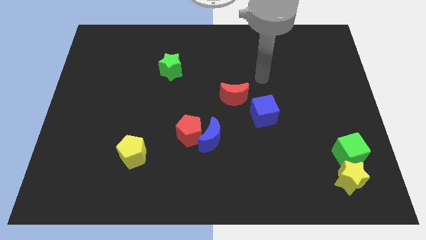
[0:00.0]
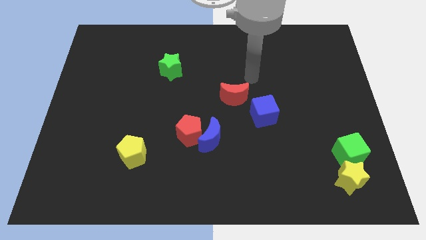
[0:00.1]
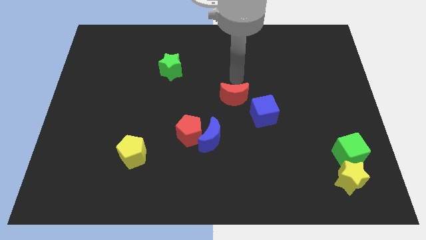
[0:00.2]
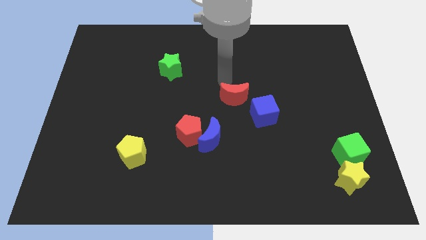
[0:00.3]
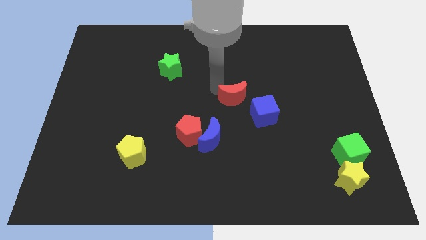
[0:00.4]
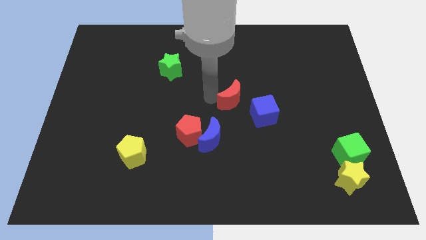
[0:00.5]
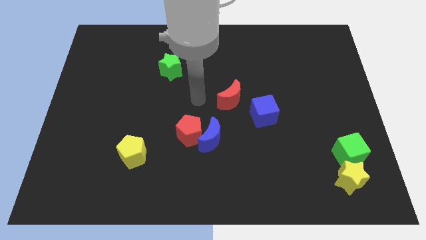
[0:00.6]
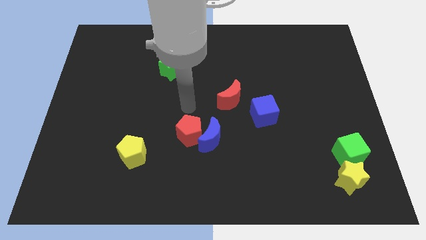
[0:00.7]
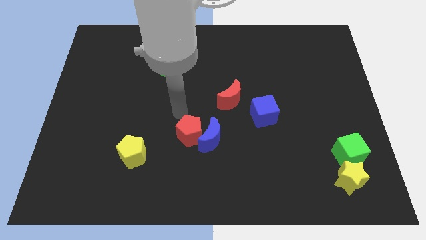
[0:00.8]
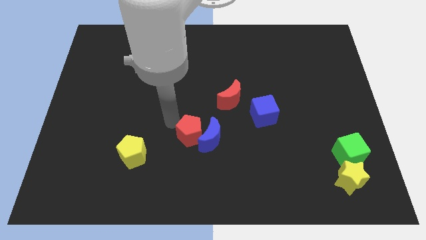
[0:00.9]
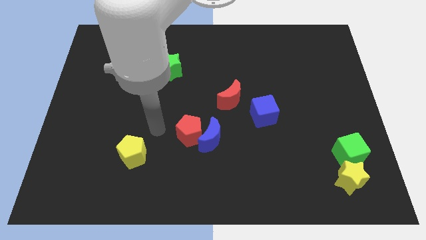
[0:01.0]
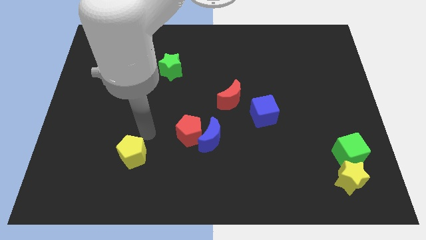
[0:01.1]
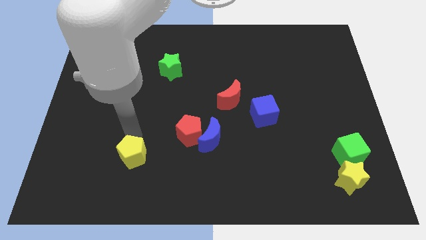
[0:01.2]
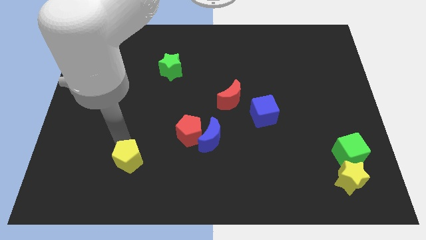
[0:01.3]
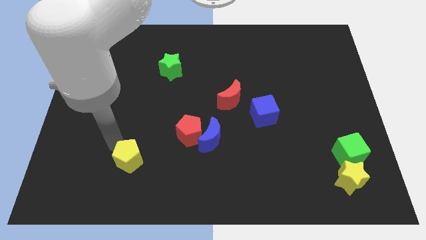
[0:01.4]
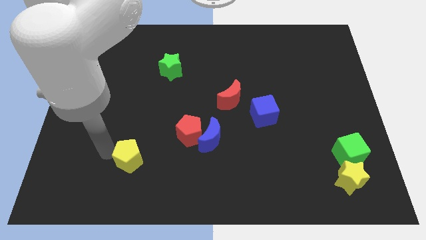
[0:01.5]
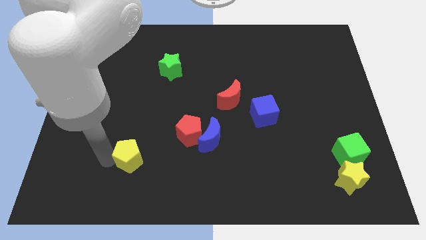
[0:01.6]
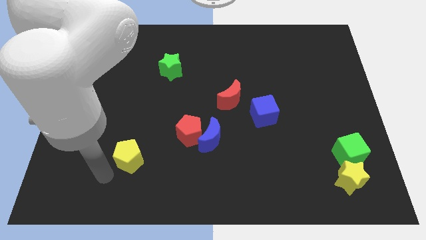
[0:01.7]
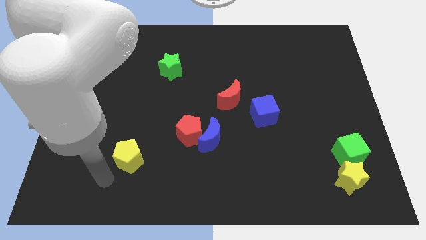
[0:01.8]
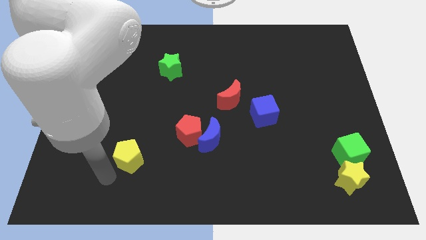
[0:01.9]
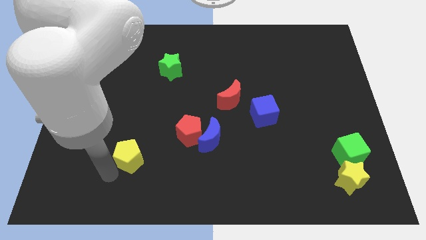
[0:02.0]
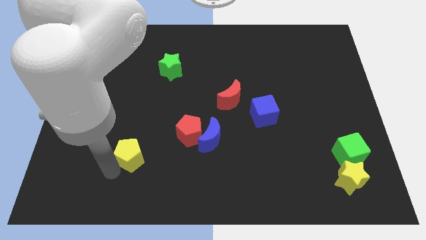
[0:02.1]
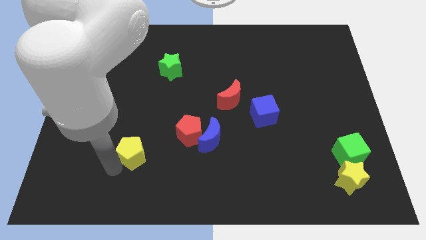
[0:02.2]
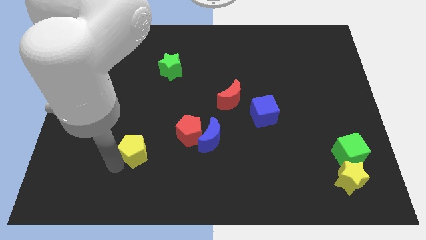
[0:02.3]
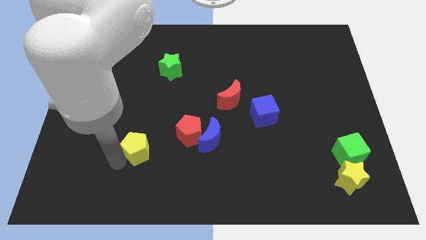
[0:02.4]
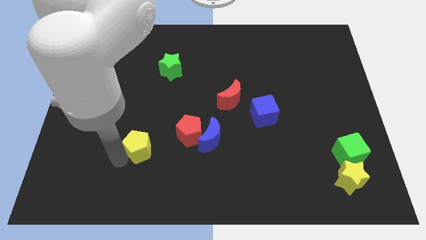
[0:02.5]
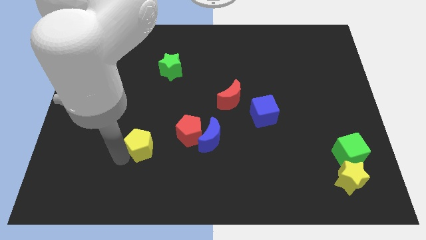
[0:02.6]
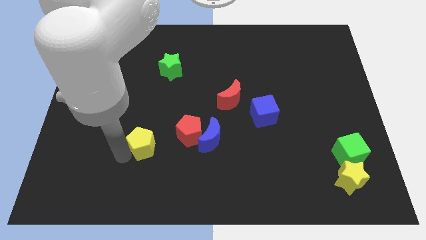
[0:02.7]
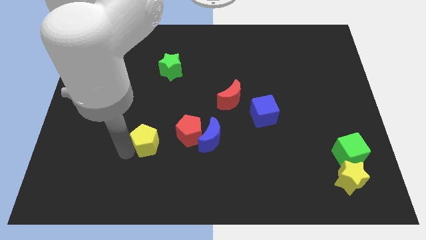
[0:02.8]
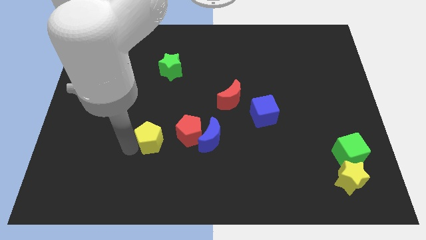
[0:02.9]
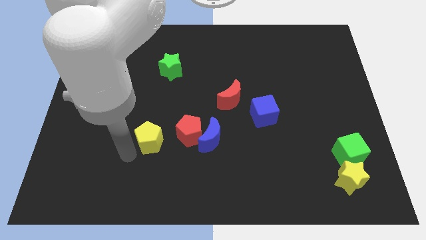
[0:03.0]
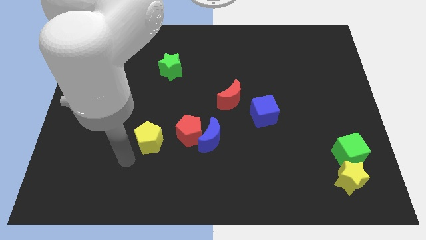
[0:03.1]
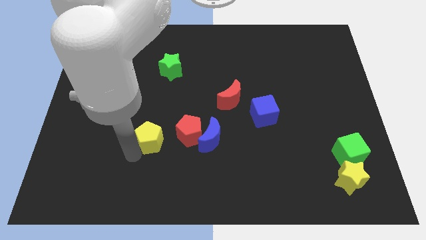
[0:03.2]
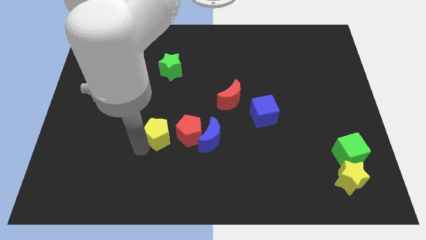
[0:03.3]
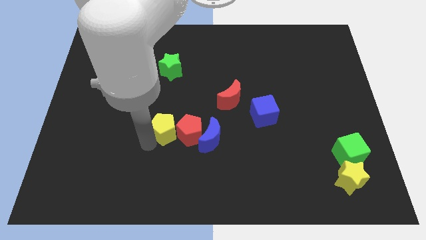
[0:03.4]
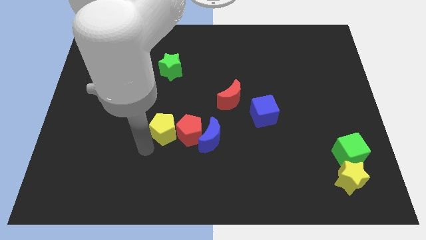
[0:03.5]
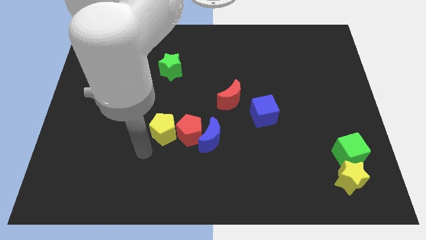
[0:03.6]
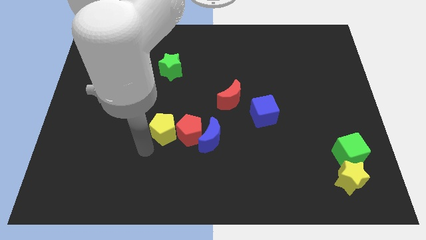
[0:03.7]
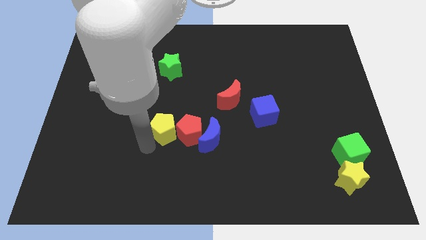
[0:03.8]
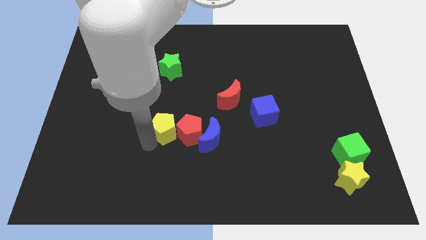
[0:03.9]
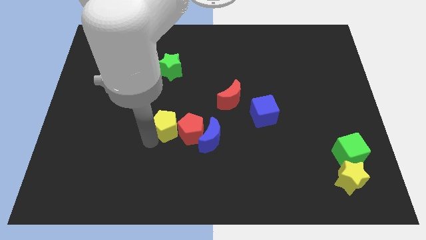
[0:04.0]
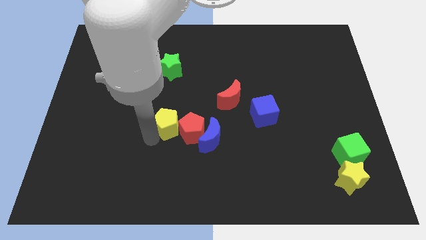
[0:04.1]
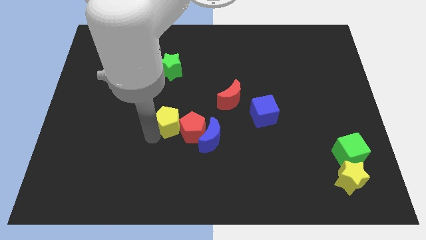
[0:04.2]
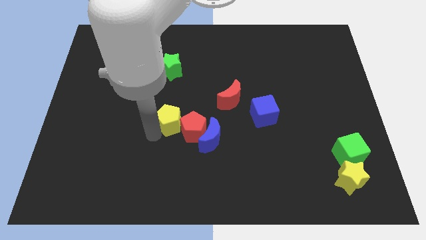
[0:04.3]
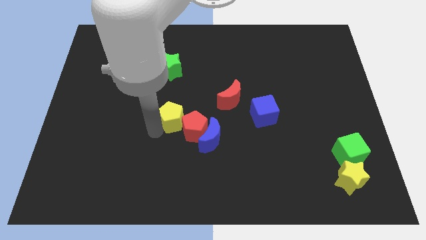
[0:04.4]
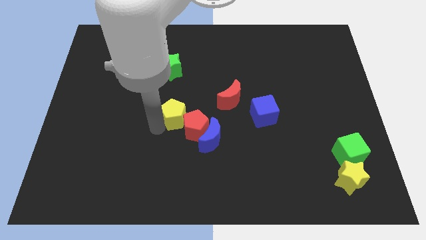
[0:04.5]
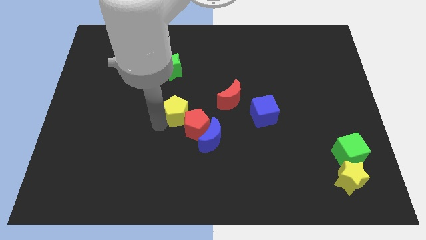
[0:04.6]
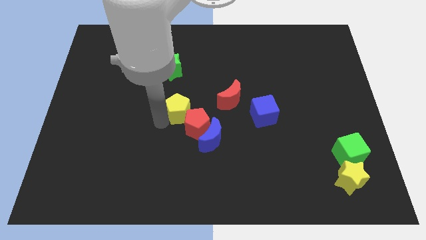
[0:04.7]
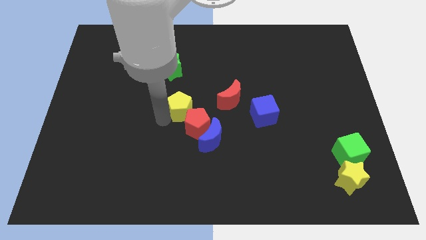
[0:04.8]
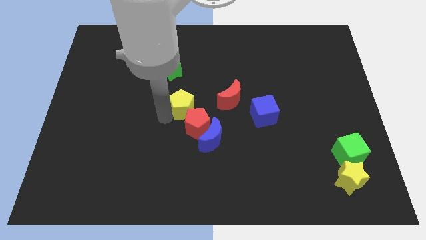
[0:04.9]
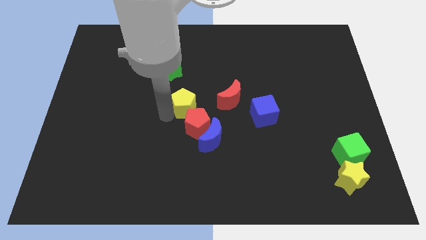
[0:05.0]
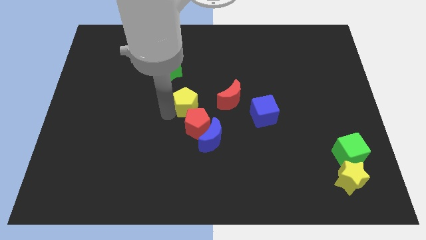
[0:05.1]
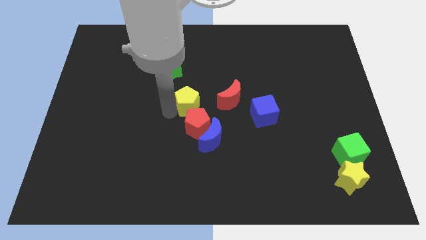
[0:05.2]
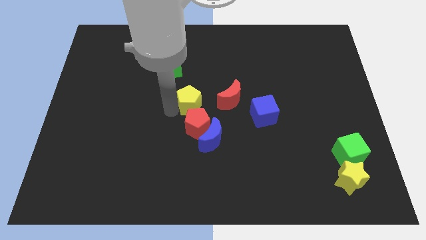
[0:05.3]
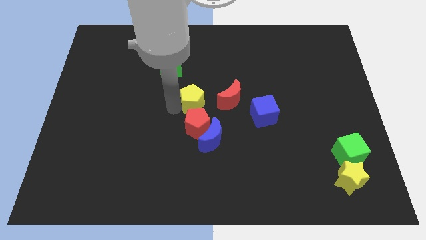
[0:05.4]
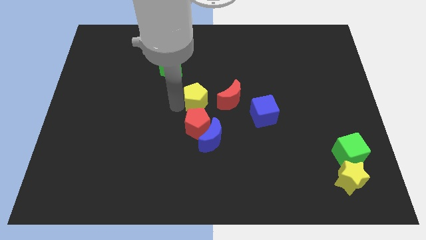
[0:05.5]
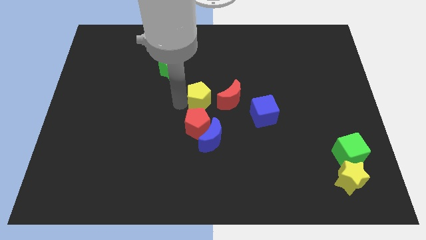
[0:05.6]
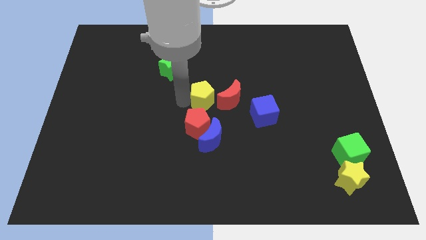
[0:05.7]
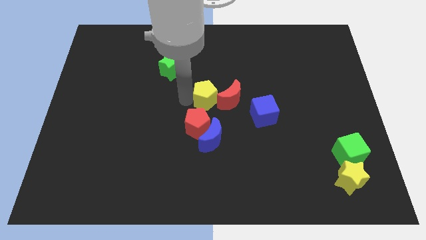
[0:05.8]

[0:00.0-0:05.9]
slide the yellow pentagon close to the red moon

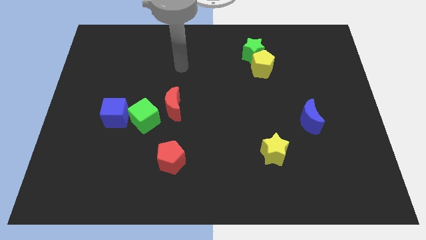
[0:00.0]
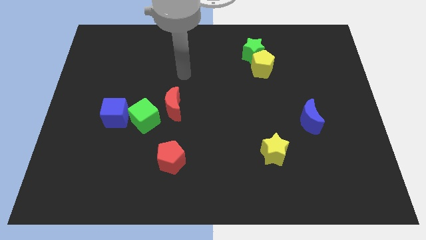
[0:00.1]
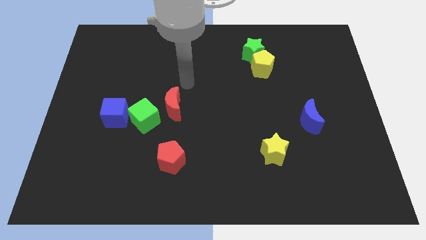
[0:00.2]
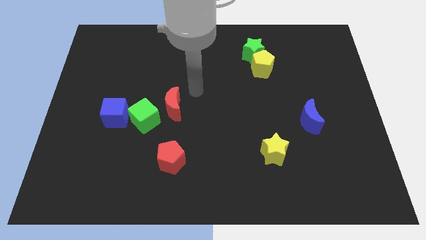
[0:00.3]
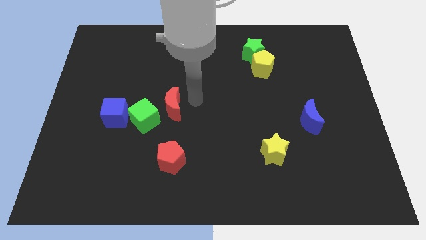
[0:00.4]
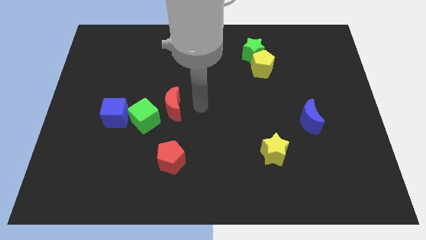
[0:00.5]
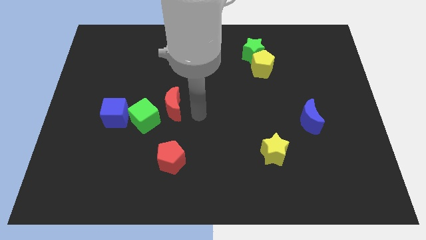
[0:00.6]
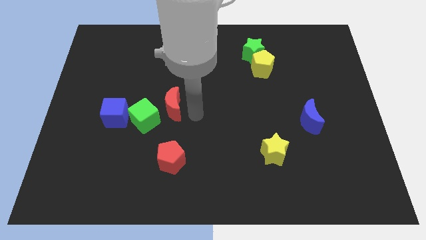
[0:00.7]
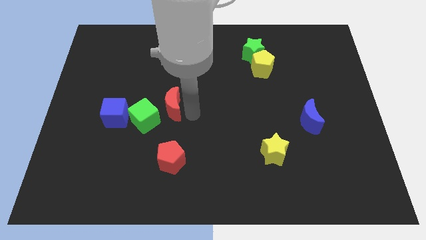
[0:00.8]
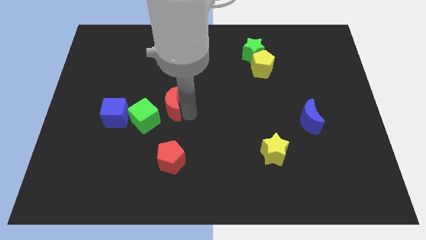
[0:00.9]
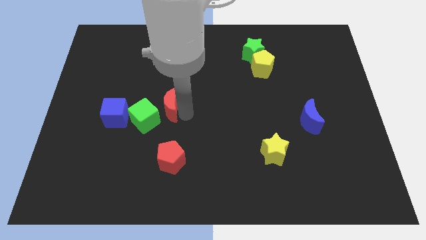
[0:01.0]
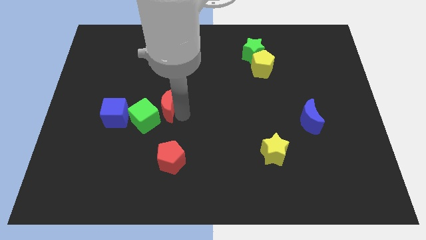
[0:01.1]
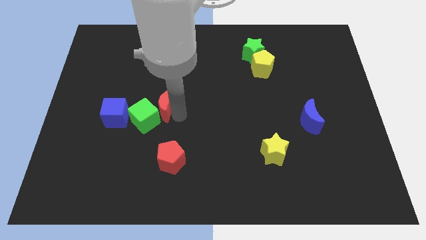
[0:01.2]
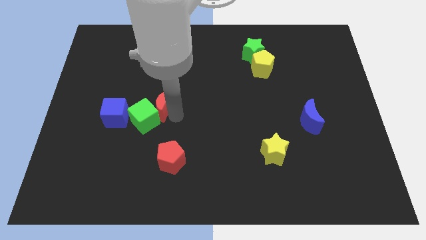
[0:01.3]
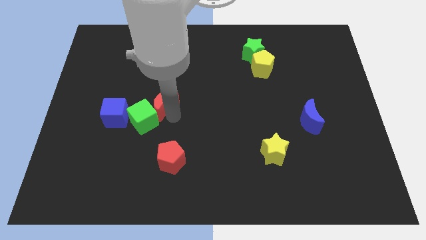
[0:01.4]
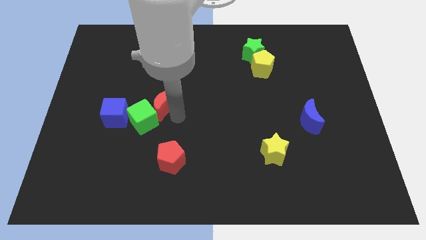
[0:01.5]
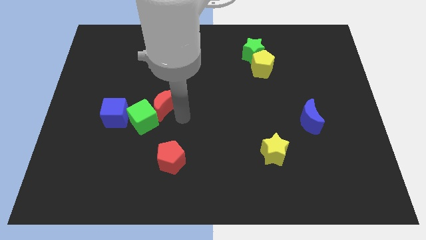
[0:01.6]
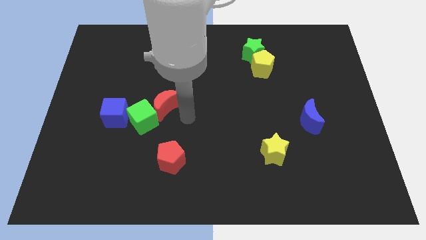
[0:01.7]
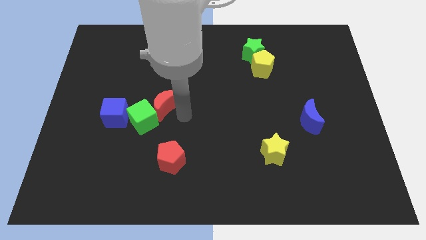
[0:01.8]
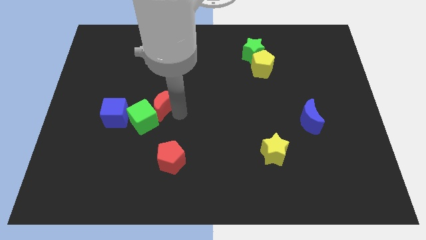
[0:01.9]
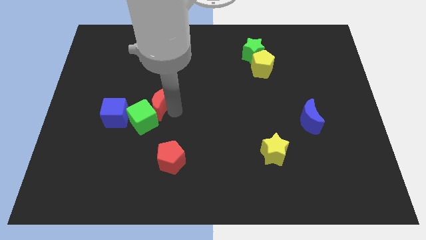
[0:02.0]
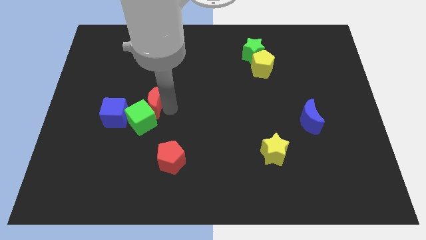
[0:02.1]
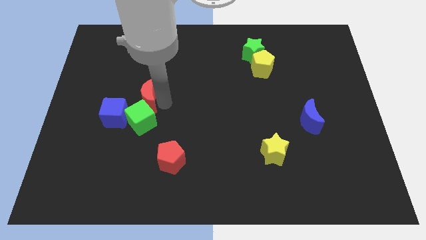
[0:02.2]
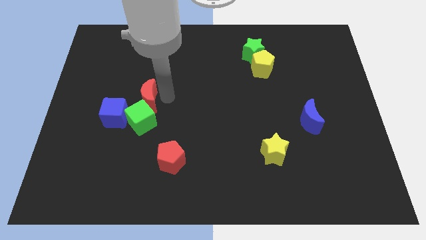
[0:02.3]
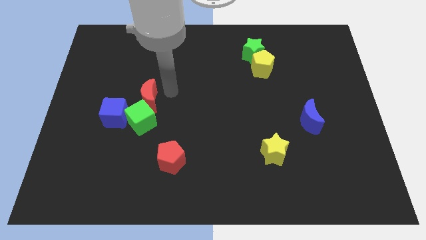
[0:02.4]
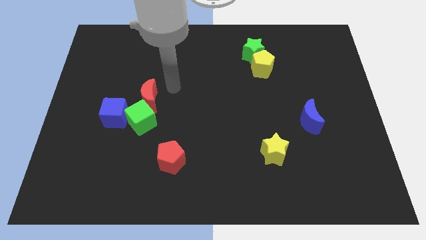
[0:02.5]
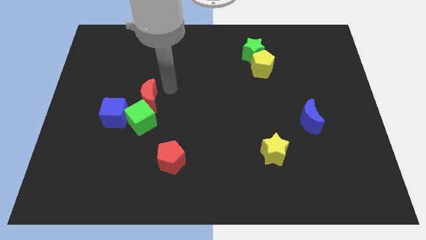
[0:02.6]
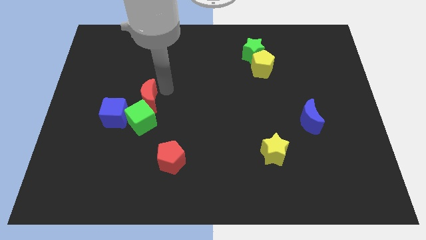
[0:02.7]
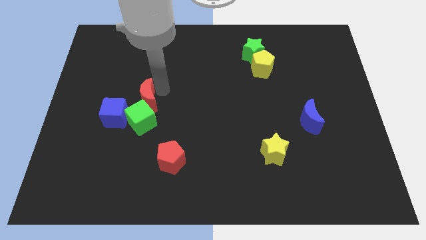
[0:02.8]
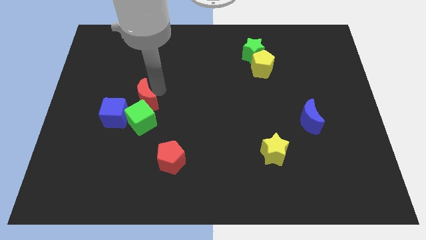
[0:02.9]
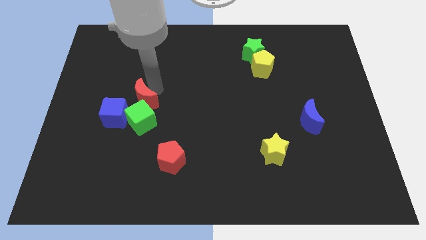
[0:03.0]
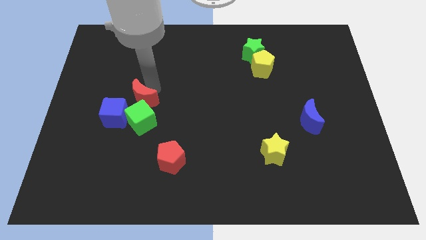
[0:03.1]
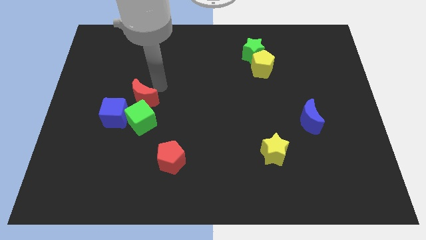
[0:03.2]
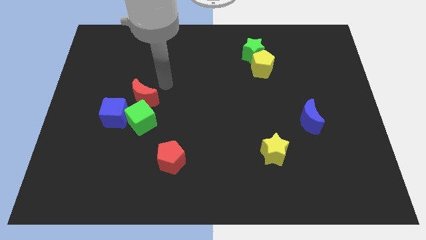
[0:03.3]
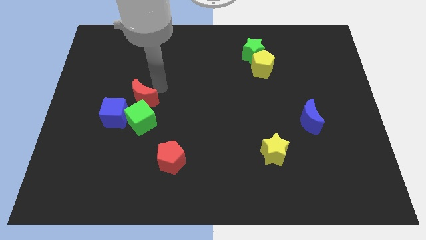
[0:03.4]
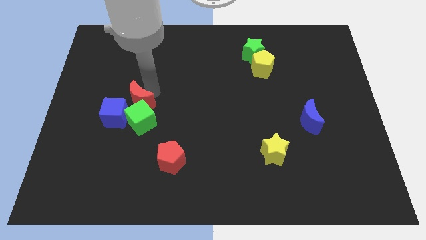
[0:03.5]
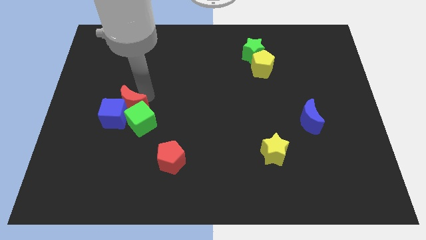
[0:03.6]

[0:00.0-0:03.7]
move the red moon to the blue cube
